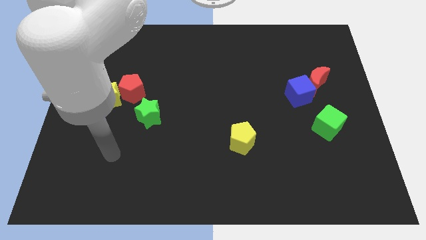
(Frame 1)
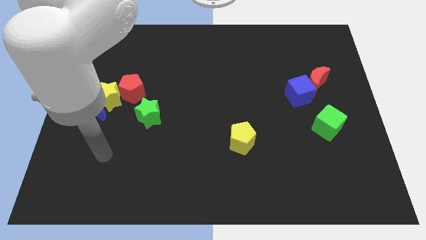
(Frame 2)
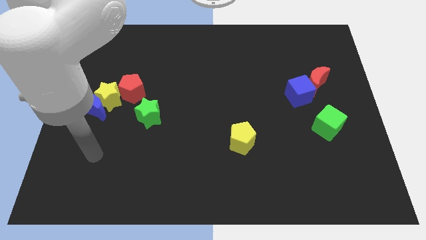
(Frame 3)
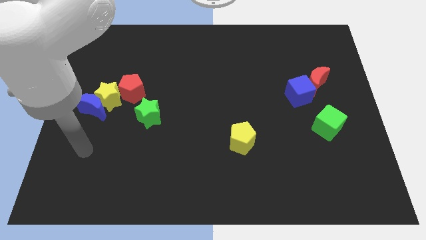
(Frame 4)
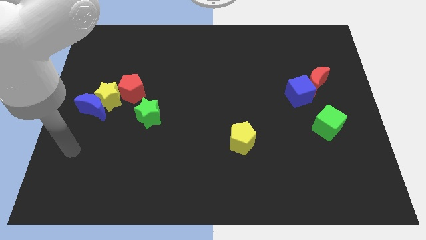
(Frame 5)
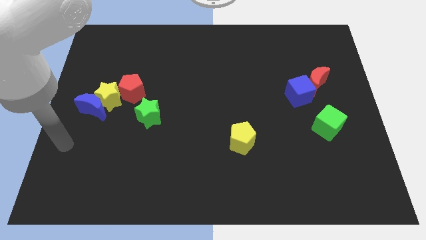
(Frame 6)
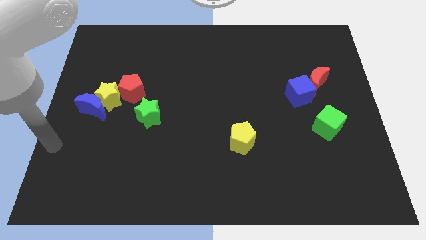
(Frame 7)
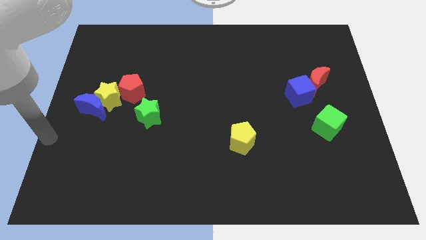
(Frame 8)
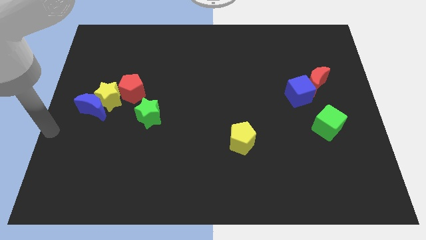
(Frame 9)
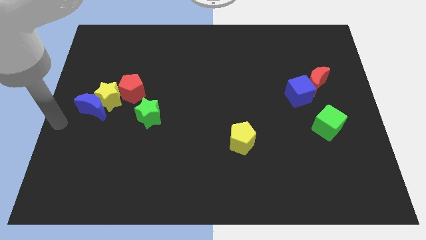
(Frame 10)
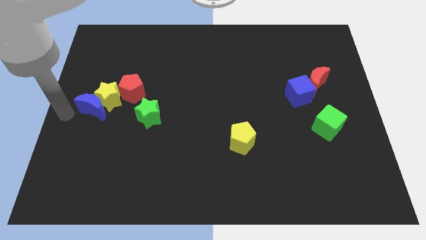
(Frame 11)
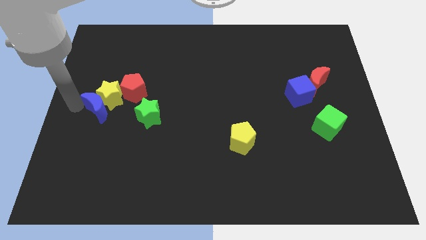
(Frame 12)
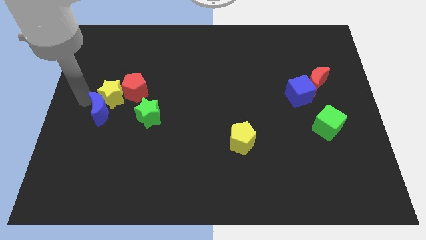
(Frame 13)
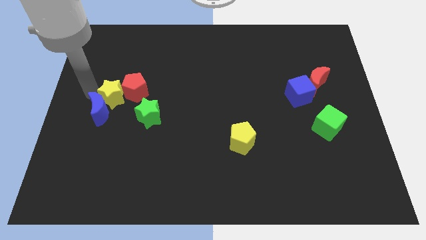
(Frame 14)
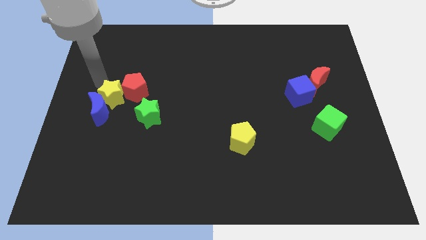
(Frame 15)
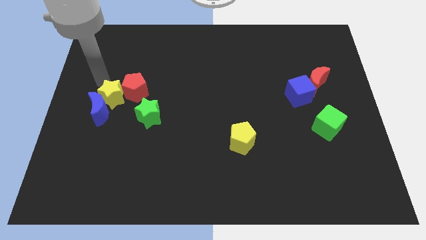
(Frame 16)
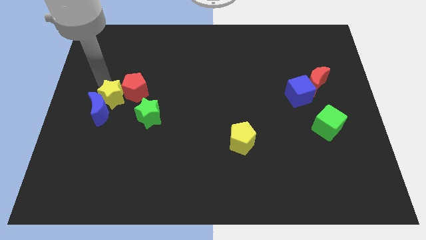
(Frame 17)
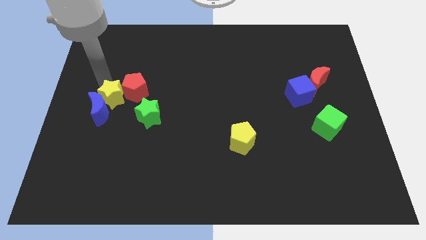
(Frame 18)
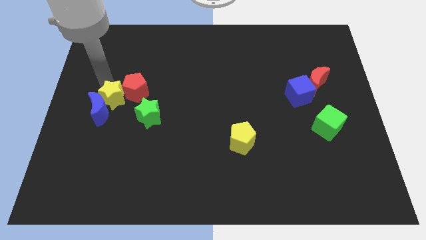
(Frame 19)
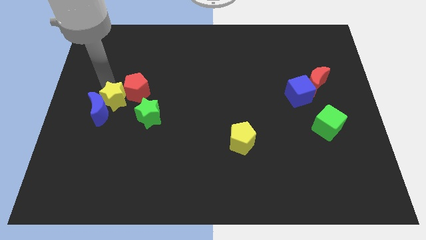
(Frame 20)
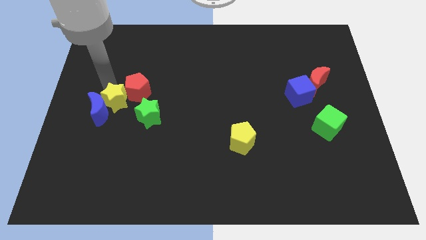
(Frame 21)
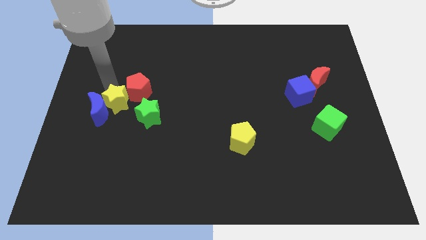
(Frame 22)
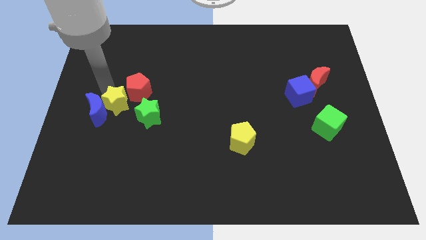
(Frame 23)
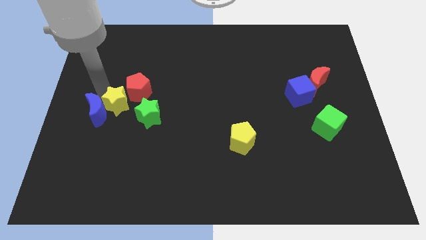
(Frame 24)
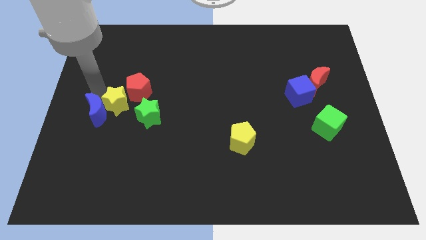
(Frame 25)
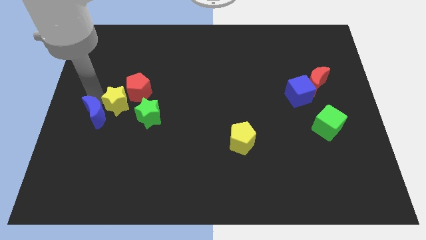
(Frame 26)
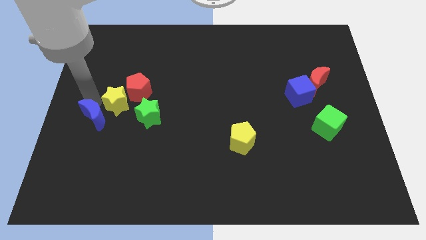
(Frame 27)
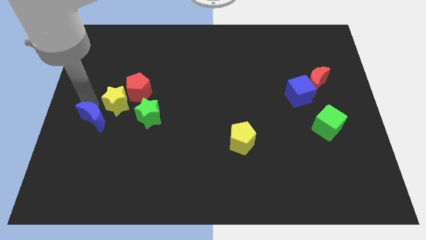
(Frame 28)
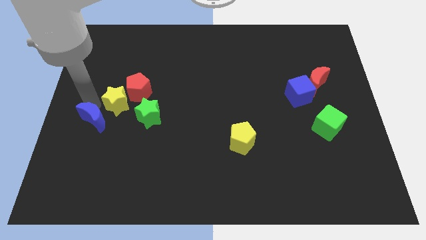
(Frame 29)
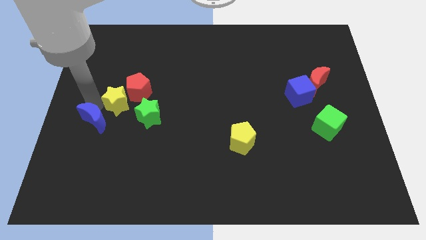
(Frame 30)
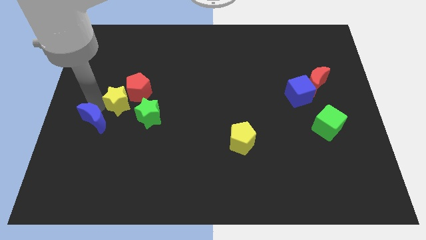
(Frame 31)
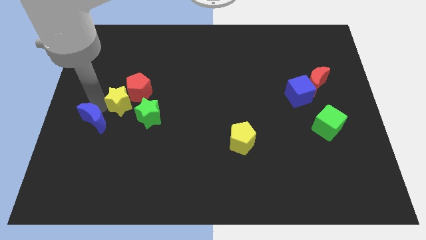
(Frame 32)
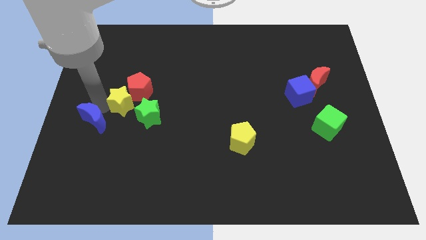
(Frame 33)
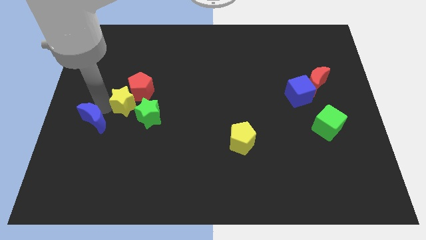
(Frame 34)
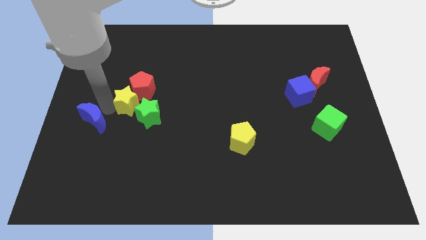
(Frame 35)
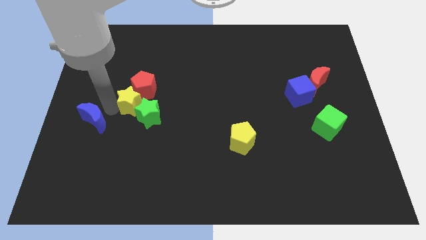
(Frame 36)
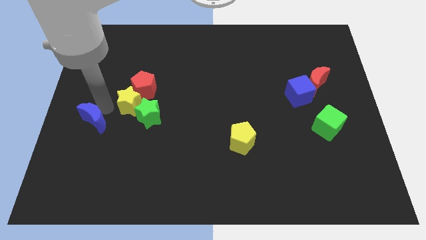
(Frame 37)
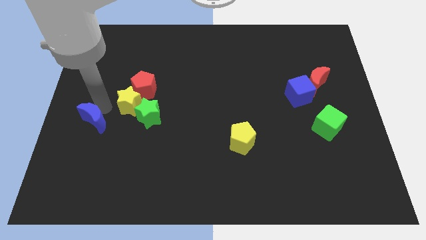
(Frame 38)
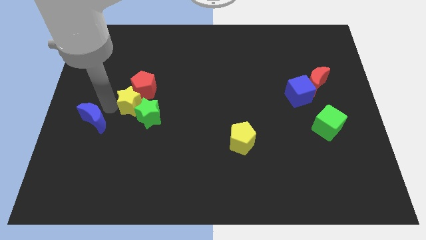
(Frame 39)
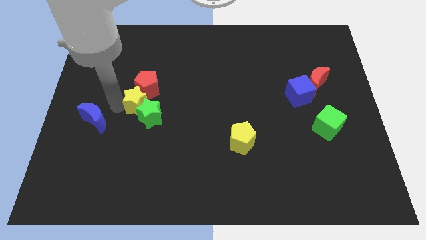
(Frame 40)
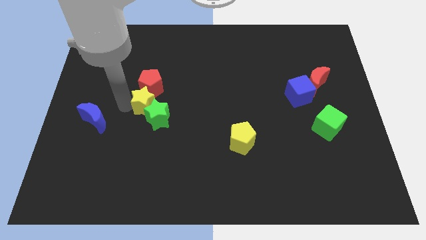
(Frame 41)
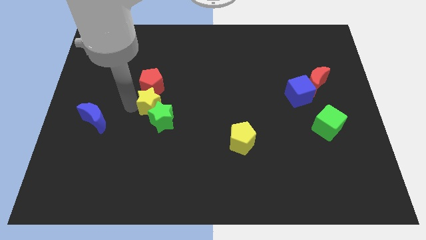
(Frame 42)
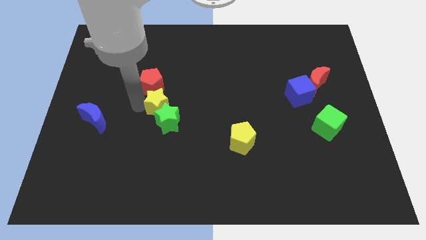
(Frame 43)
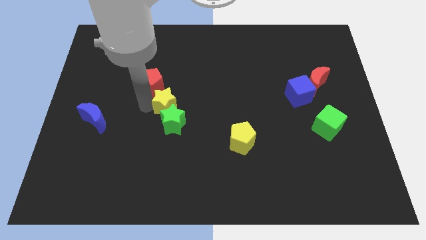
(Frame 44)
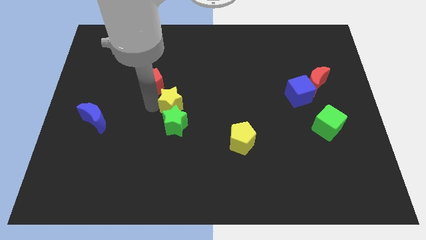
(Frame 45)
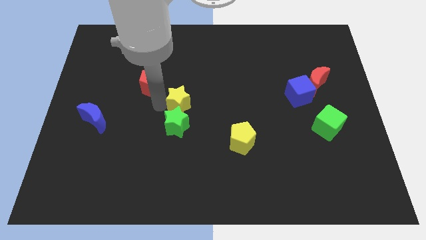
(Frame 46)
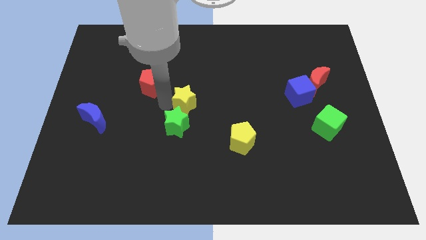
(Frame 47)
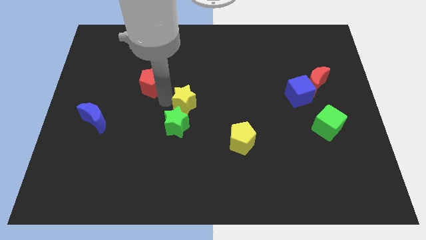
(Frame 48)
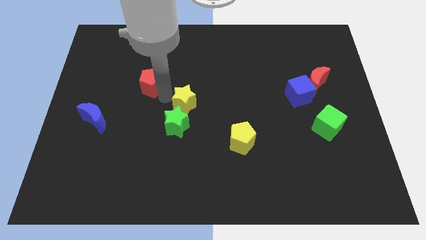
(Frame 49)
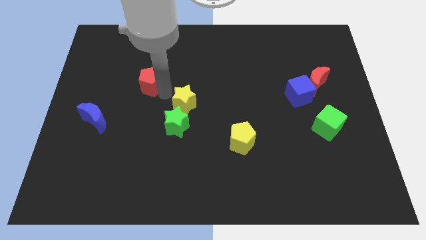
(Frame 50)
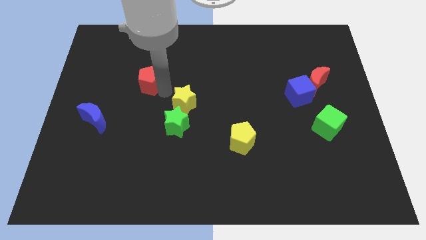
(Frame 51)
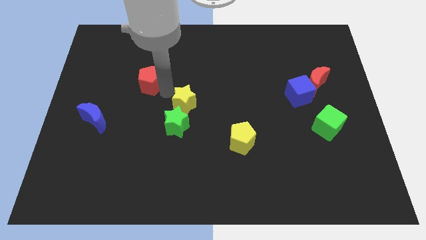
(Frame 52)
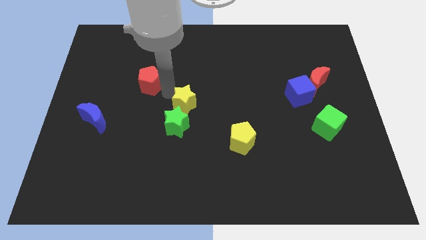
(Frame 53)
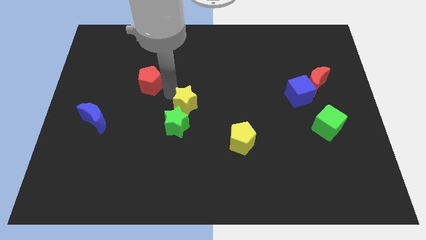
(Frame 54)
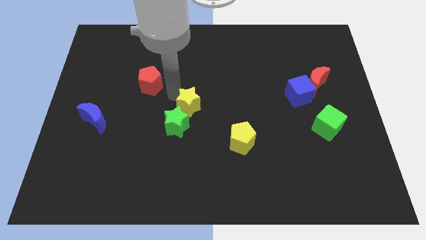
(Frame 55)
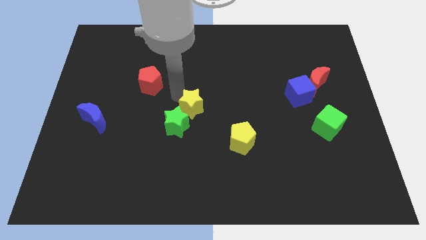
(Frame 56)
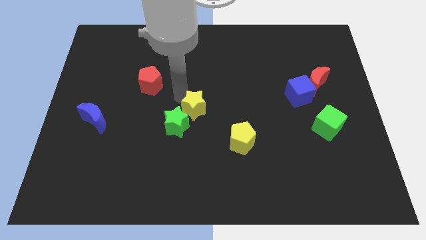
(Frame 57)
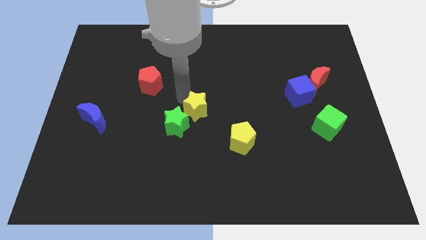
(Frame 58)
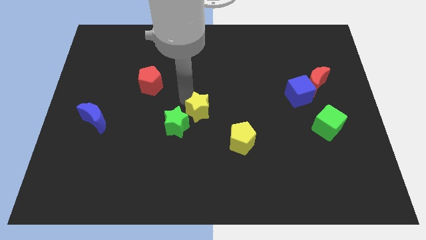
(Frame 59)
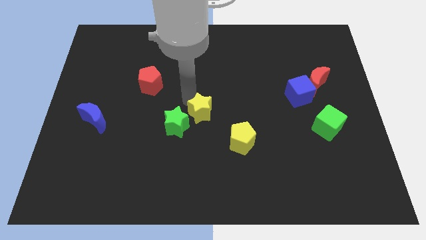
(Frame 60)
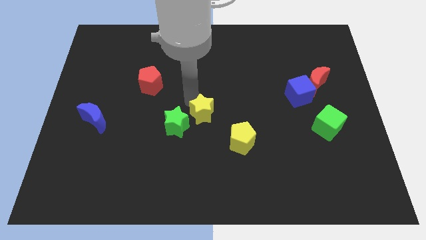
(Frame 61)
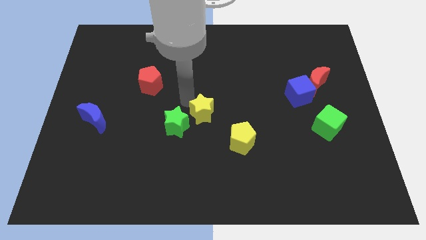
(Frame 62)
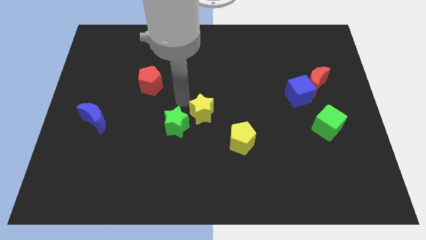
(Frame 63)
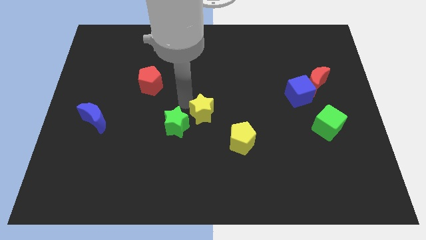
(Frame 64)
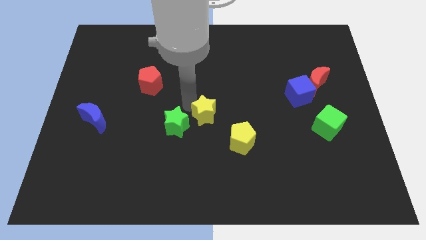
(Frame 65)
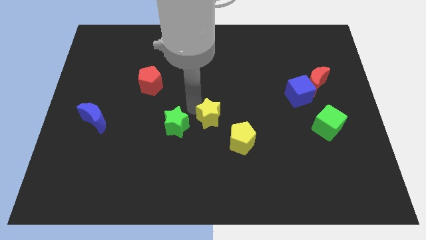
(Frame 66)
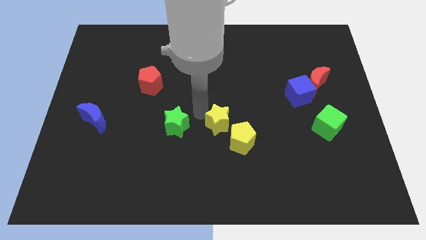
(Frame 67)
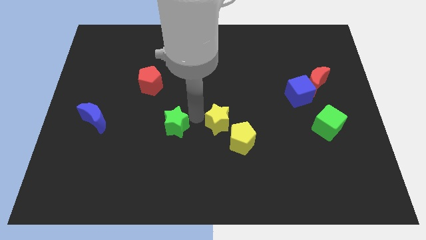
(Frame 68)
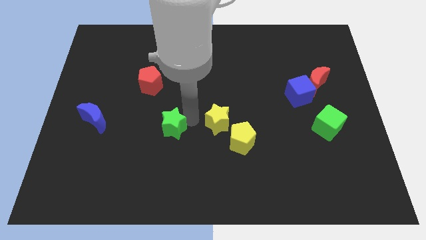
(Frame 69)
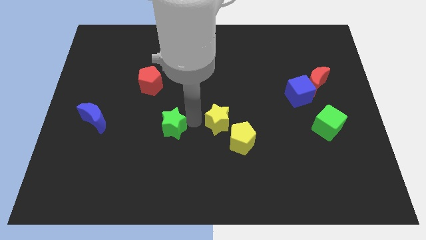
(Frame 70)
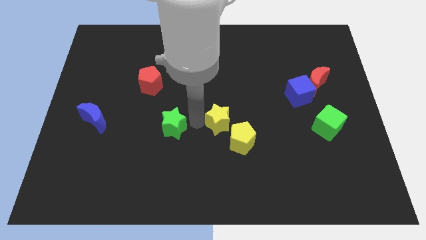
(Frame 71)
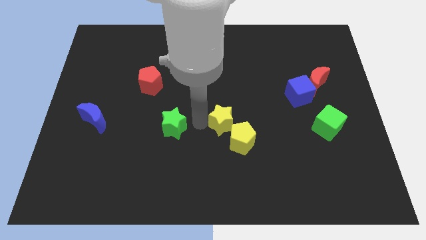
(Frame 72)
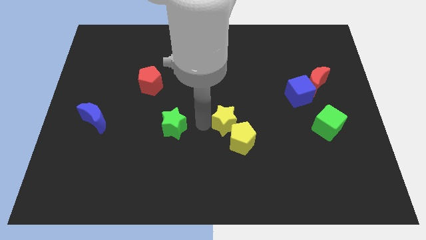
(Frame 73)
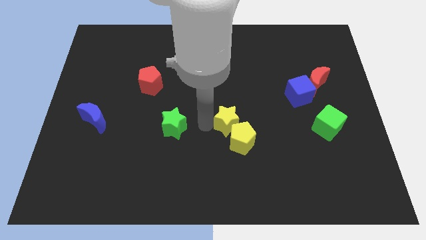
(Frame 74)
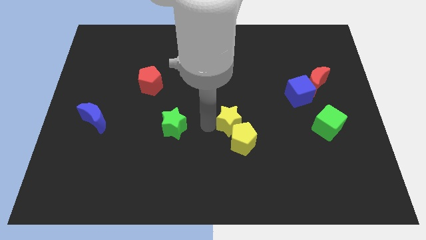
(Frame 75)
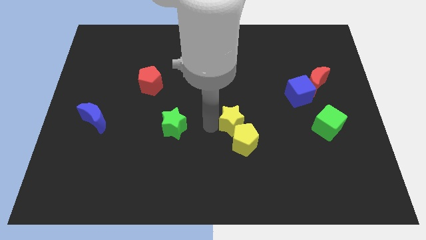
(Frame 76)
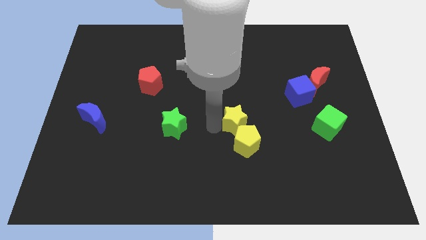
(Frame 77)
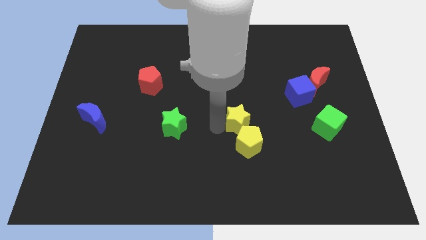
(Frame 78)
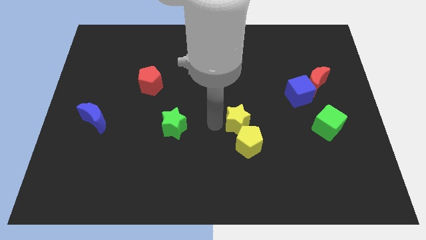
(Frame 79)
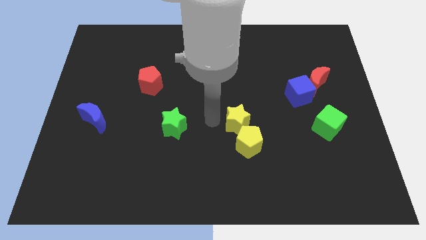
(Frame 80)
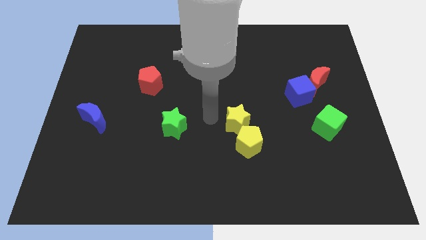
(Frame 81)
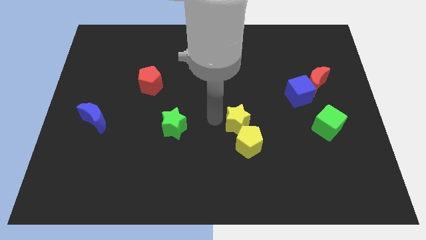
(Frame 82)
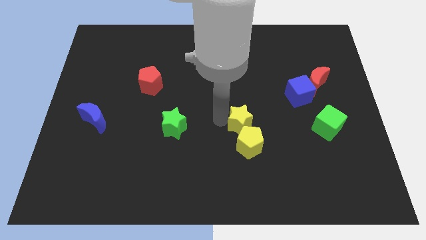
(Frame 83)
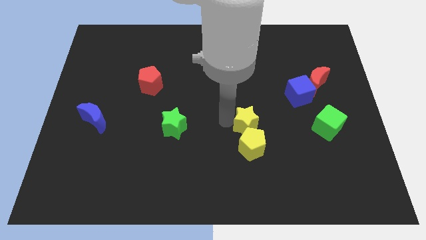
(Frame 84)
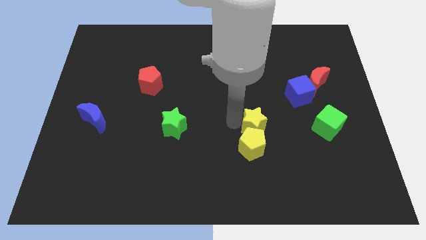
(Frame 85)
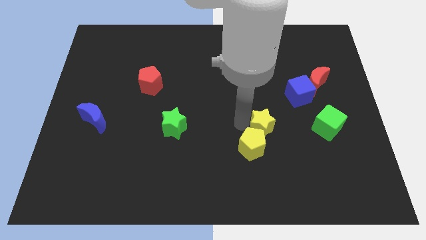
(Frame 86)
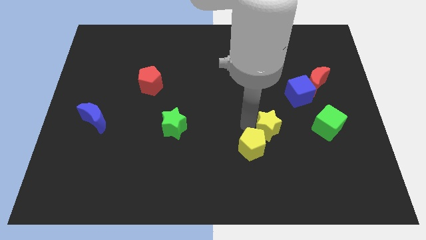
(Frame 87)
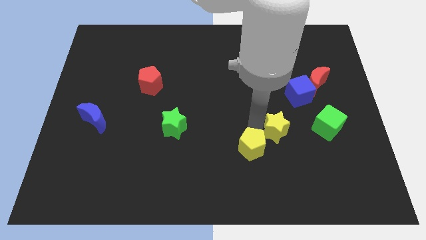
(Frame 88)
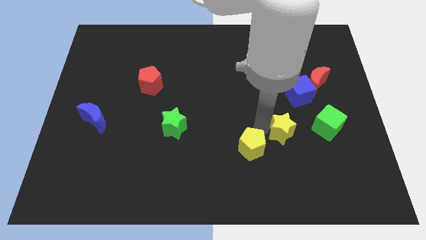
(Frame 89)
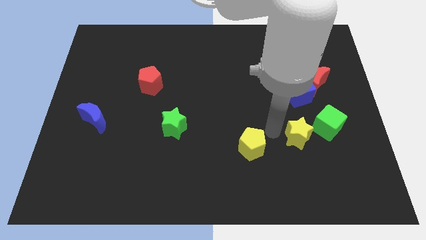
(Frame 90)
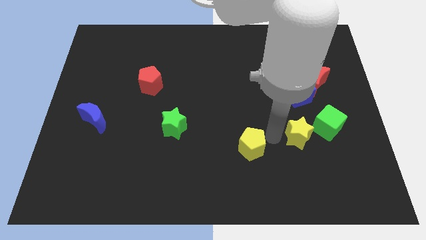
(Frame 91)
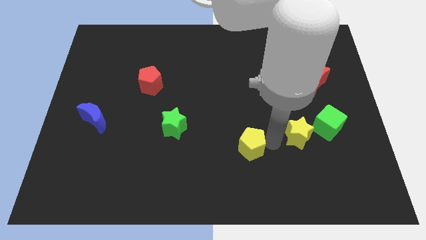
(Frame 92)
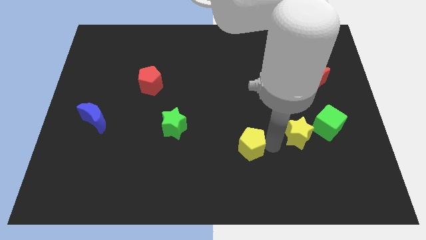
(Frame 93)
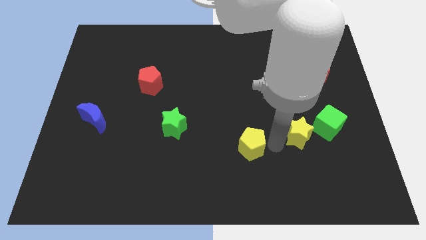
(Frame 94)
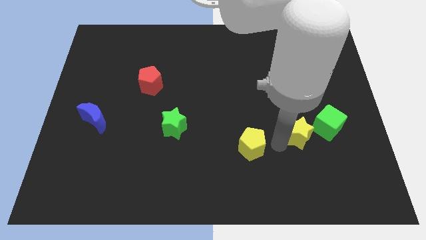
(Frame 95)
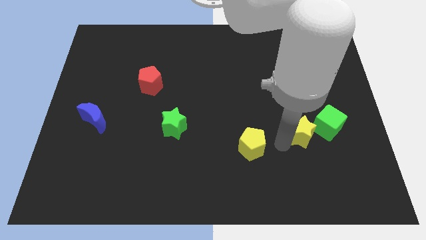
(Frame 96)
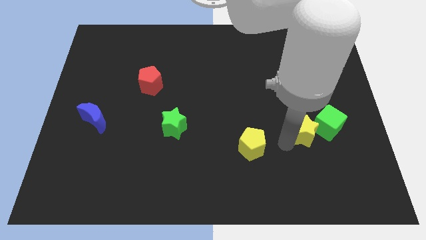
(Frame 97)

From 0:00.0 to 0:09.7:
put the yellow star to the green cube
